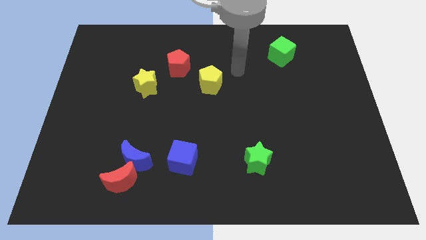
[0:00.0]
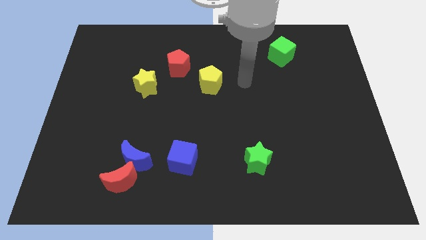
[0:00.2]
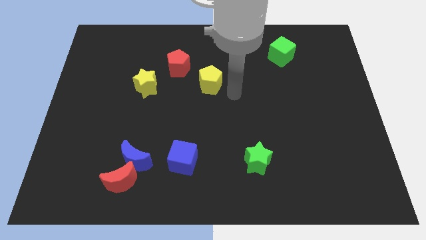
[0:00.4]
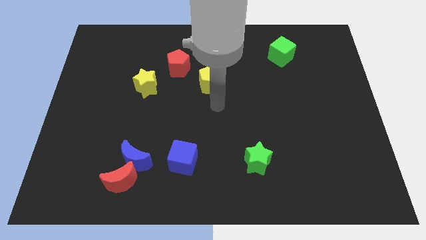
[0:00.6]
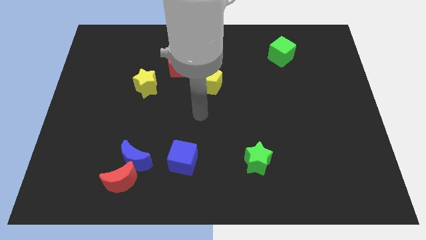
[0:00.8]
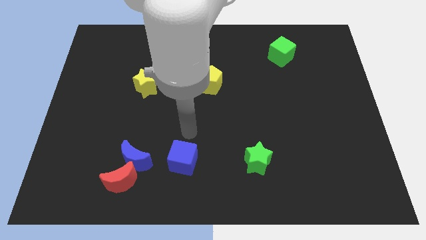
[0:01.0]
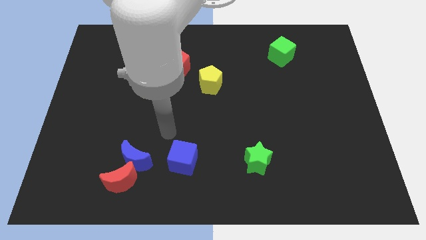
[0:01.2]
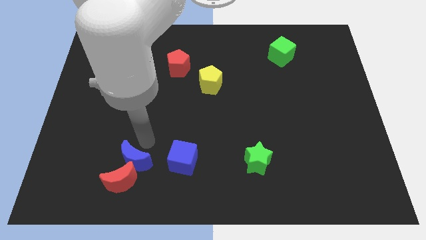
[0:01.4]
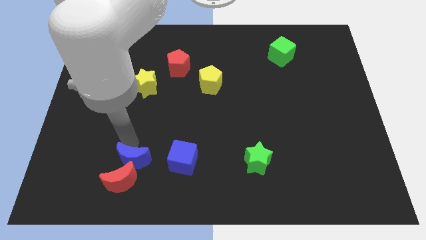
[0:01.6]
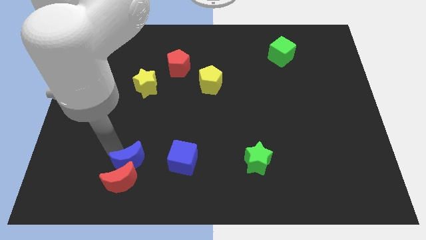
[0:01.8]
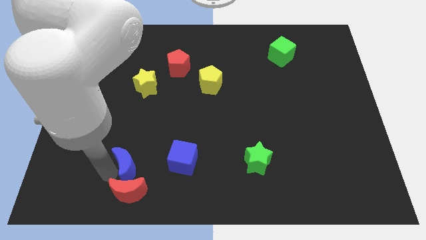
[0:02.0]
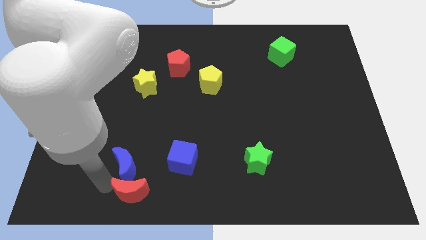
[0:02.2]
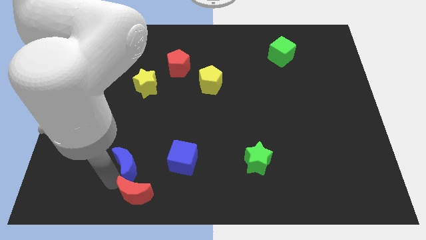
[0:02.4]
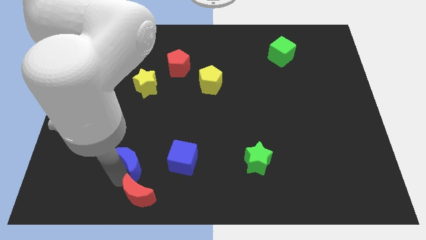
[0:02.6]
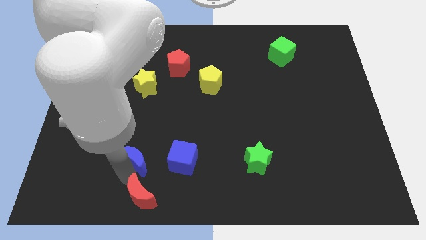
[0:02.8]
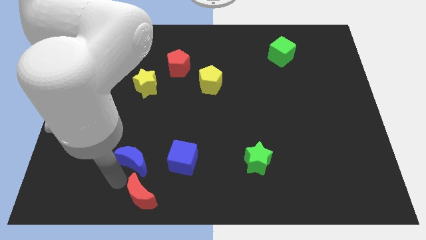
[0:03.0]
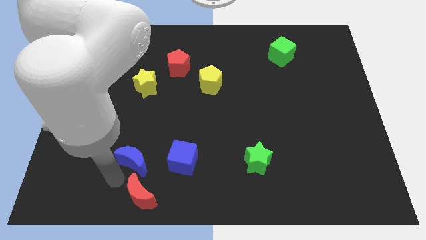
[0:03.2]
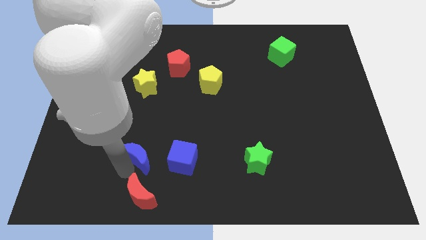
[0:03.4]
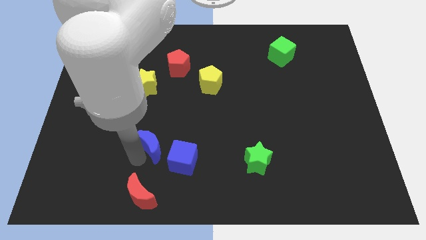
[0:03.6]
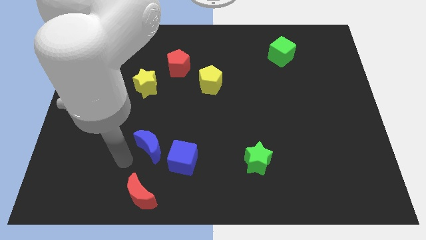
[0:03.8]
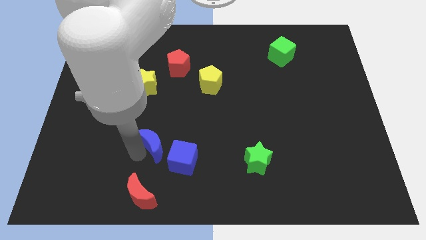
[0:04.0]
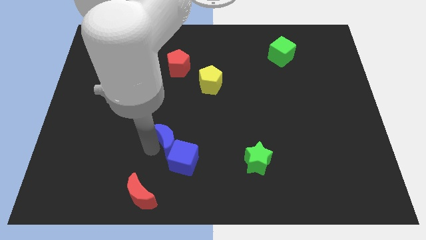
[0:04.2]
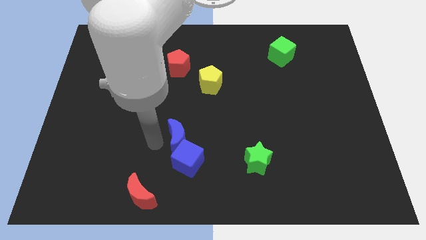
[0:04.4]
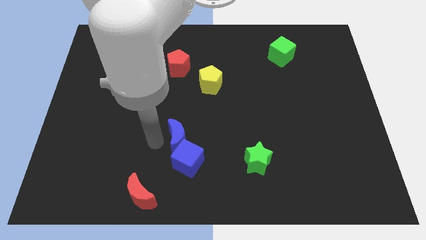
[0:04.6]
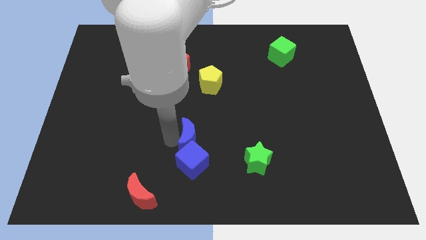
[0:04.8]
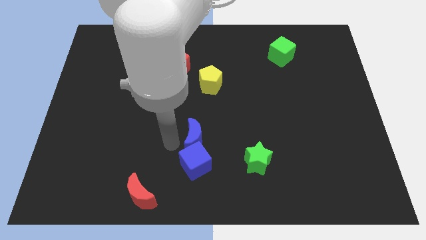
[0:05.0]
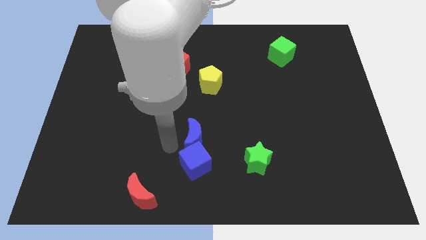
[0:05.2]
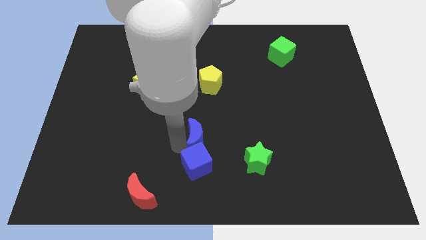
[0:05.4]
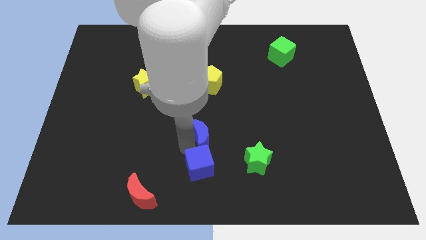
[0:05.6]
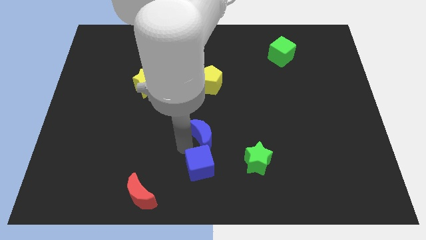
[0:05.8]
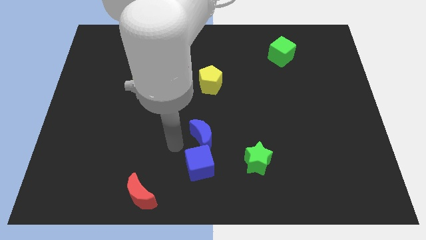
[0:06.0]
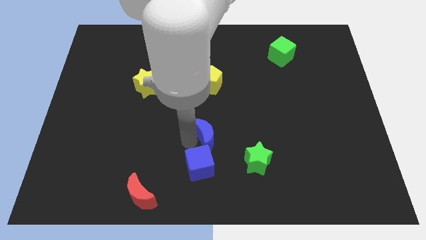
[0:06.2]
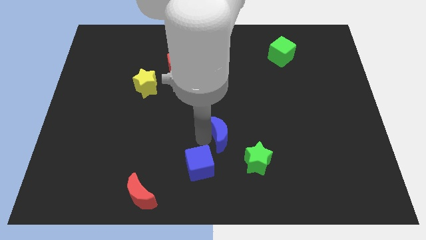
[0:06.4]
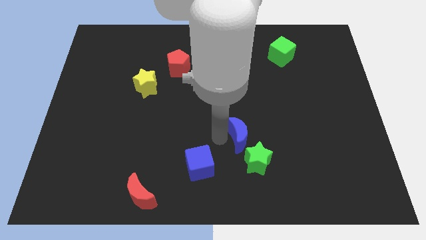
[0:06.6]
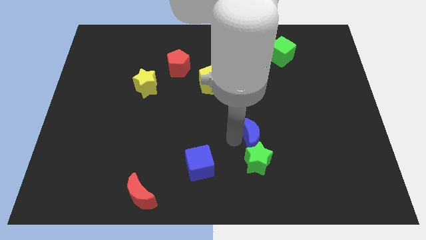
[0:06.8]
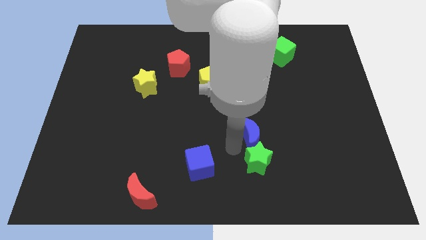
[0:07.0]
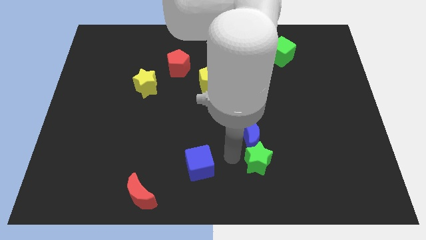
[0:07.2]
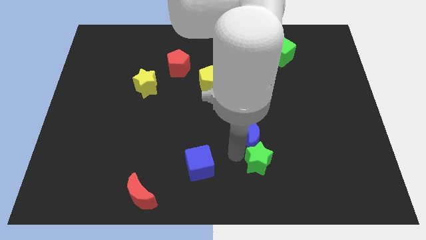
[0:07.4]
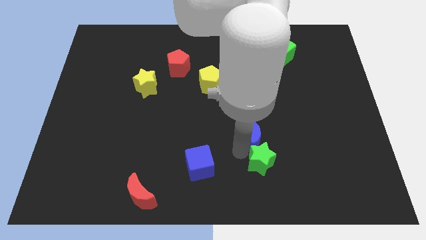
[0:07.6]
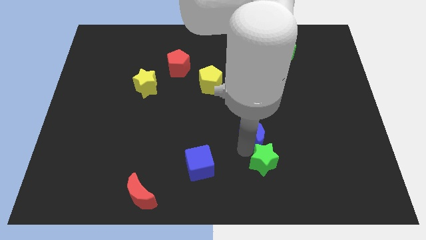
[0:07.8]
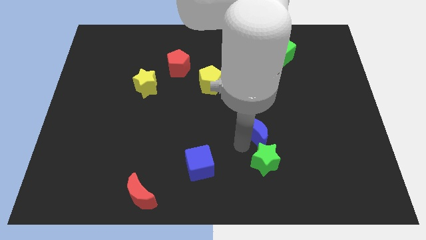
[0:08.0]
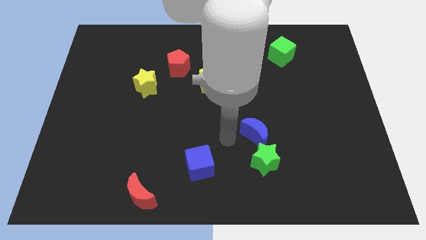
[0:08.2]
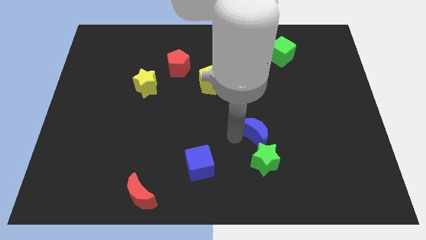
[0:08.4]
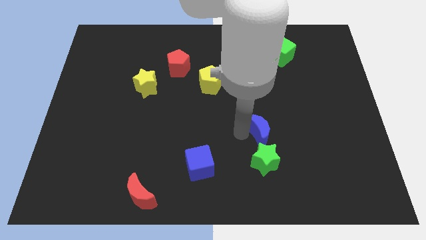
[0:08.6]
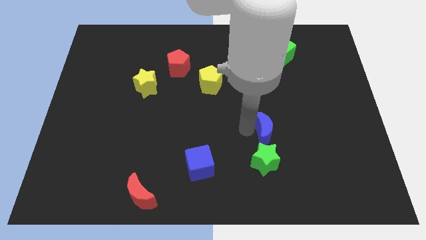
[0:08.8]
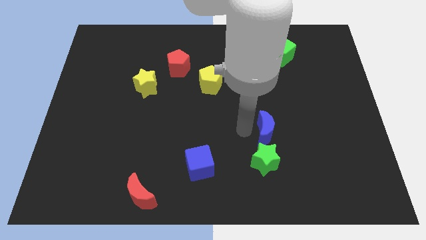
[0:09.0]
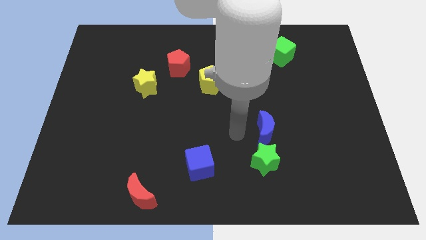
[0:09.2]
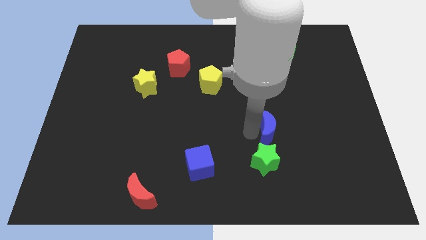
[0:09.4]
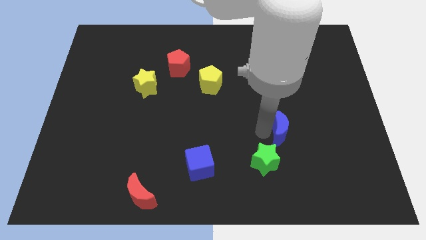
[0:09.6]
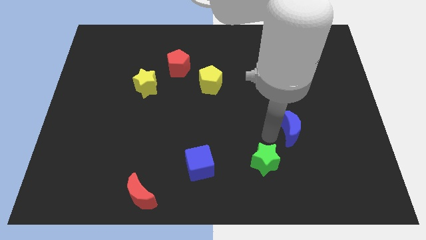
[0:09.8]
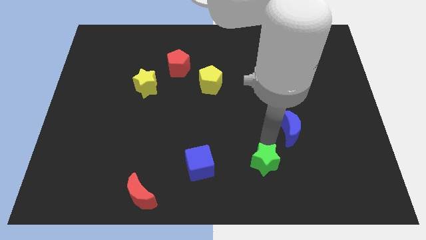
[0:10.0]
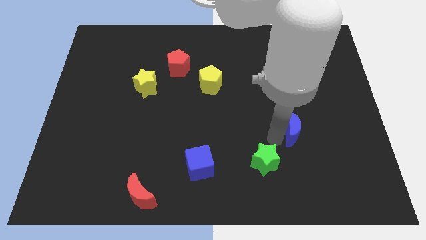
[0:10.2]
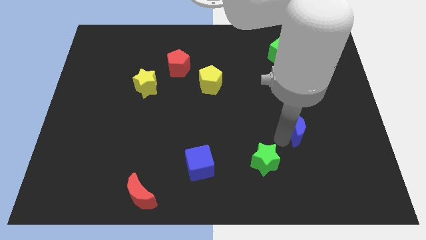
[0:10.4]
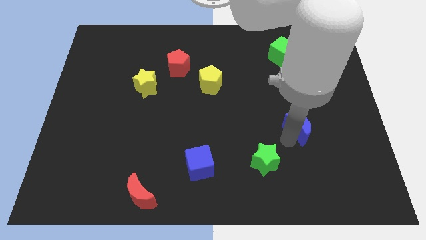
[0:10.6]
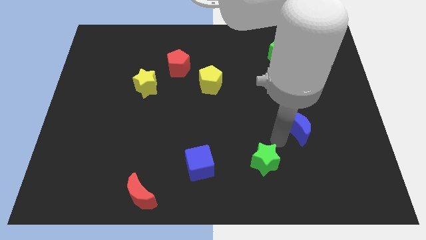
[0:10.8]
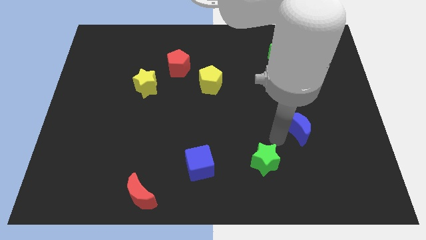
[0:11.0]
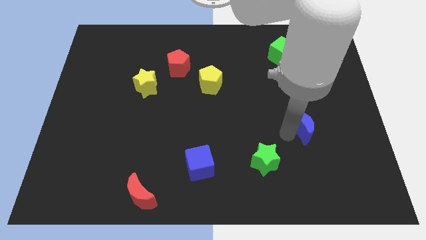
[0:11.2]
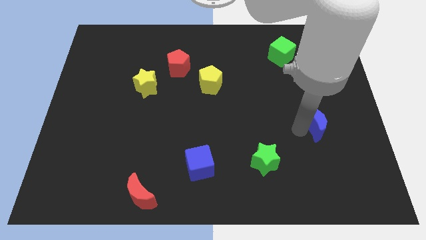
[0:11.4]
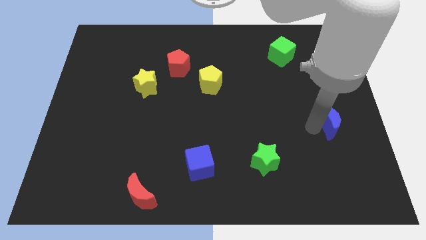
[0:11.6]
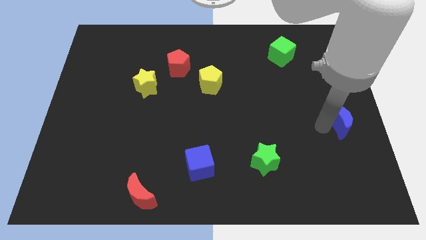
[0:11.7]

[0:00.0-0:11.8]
move the blue moon to the center right
